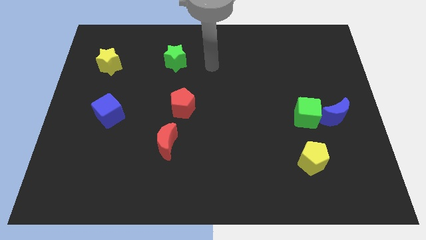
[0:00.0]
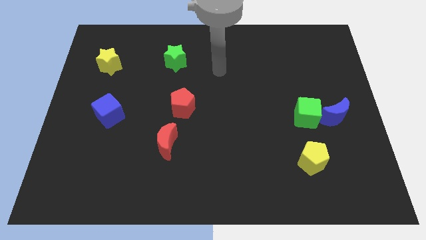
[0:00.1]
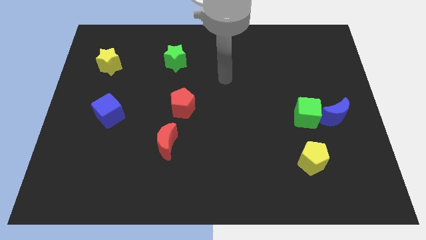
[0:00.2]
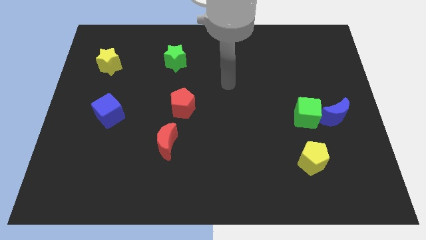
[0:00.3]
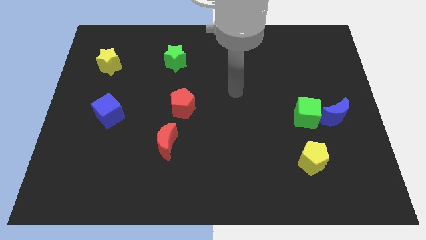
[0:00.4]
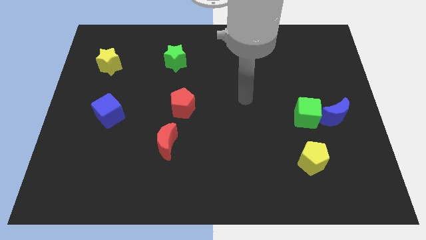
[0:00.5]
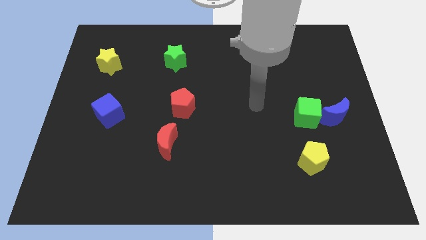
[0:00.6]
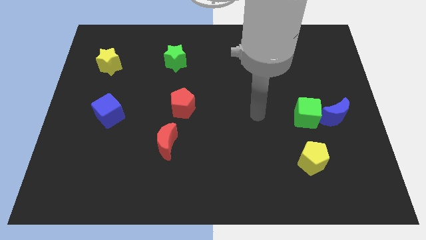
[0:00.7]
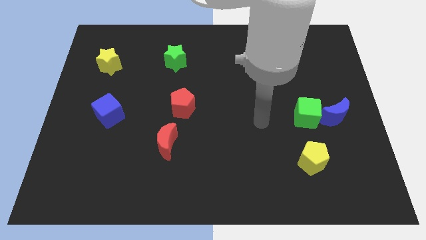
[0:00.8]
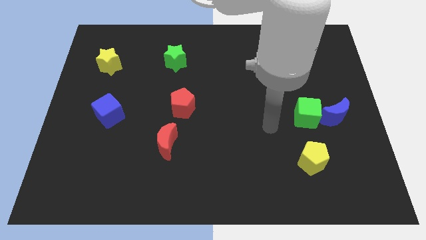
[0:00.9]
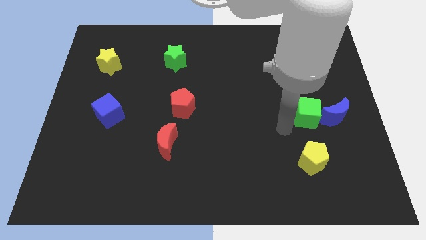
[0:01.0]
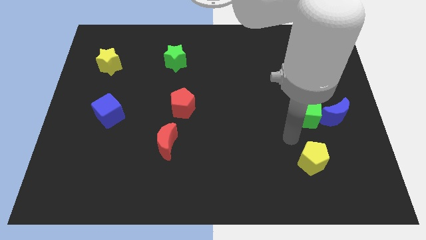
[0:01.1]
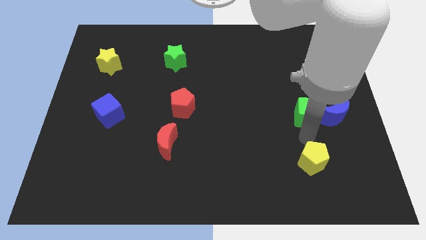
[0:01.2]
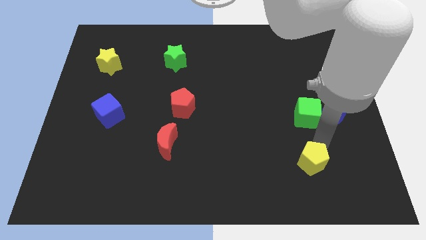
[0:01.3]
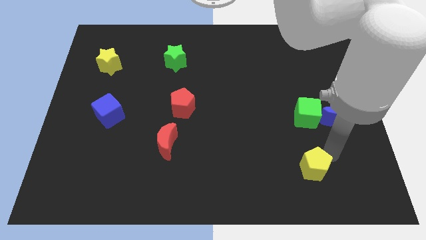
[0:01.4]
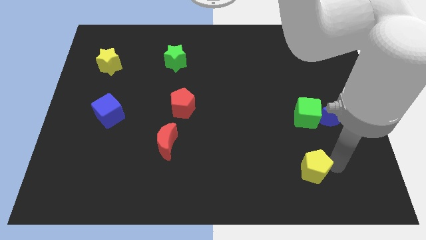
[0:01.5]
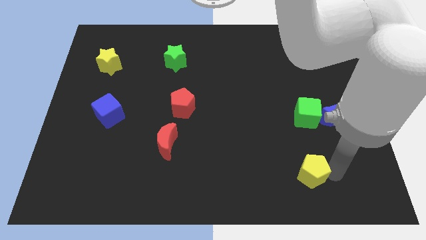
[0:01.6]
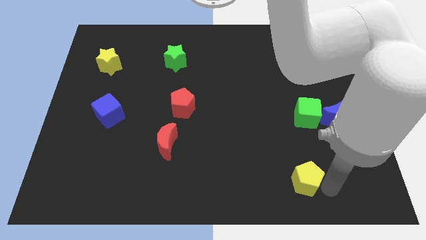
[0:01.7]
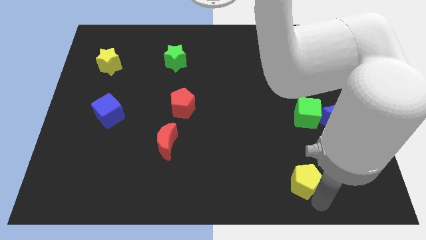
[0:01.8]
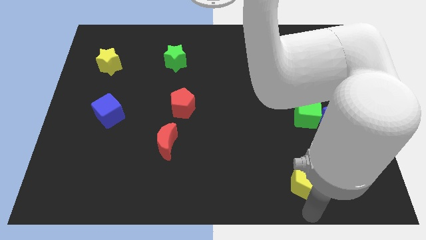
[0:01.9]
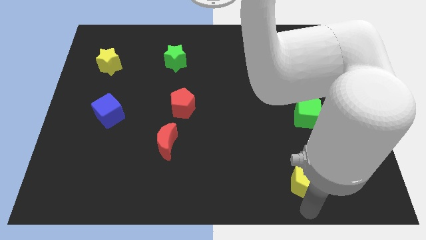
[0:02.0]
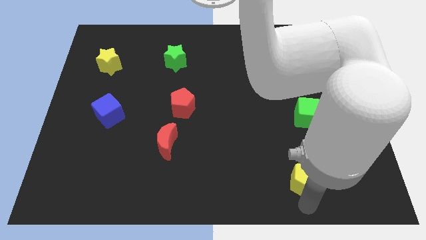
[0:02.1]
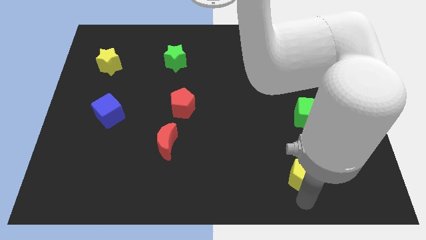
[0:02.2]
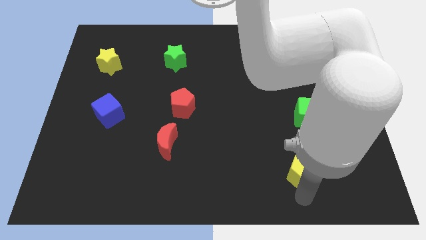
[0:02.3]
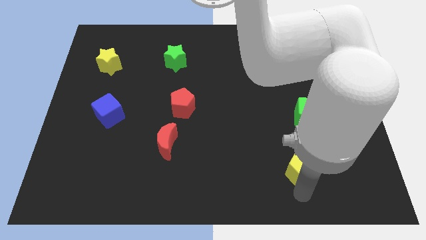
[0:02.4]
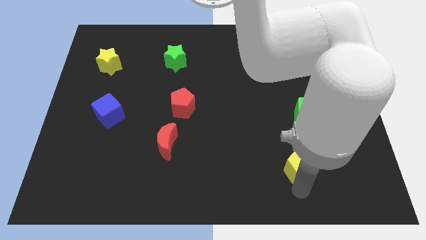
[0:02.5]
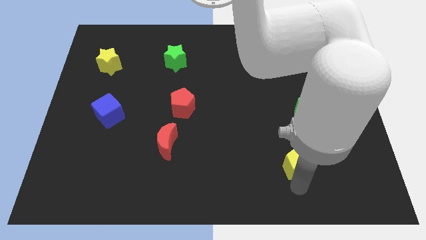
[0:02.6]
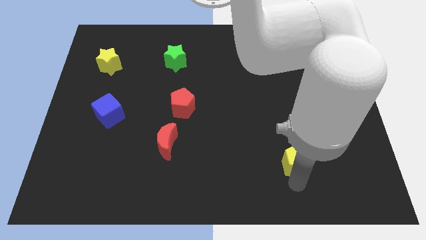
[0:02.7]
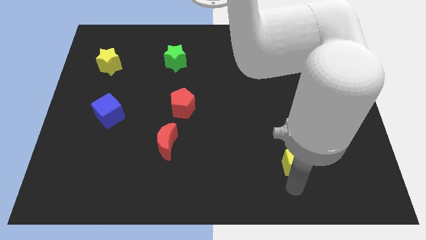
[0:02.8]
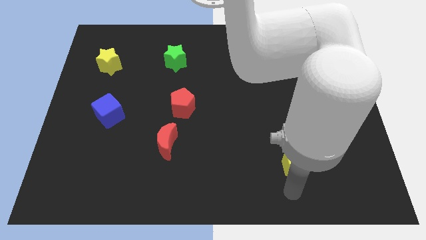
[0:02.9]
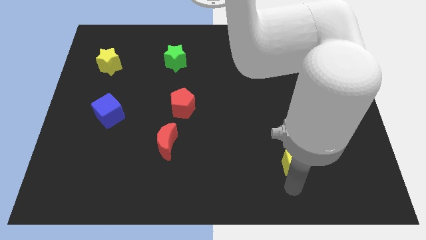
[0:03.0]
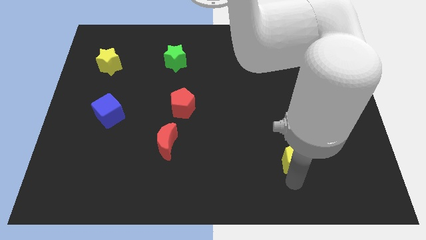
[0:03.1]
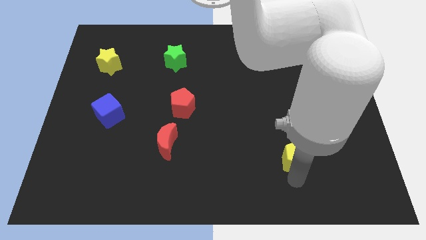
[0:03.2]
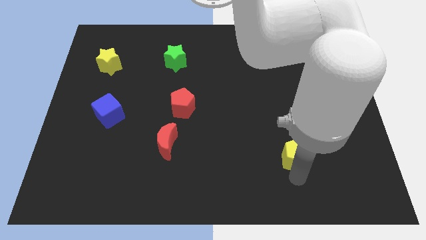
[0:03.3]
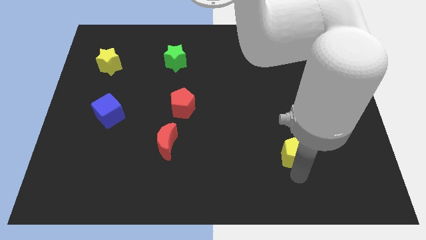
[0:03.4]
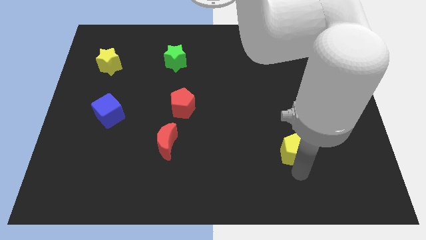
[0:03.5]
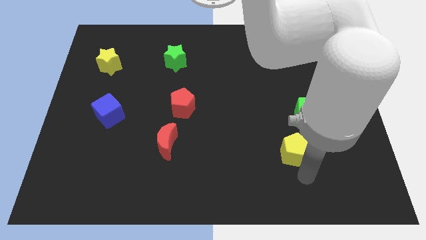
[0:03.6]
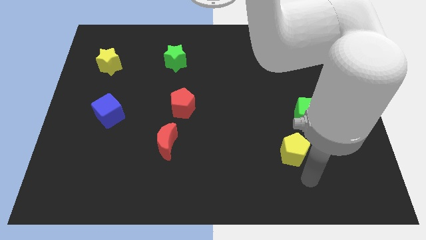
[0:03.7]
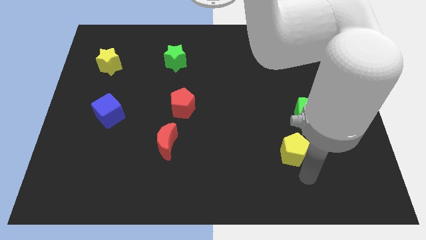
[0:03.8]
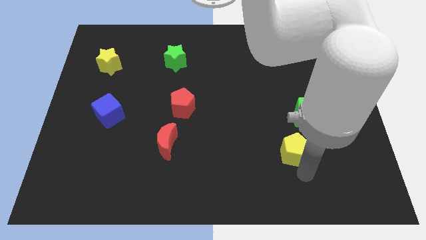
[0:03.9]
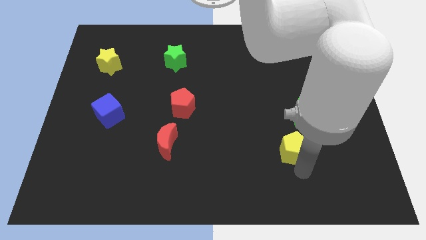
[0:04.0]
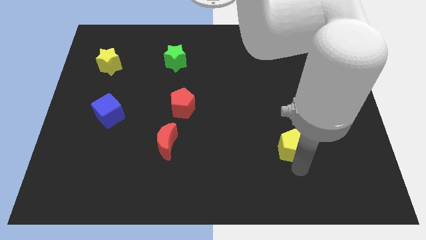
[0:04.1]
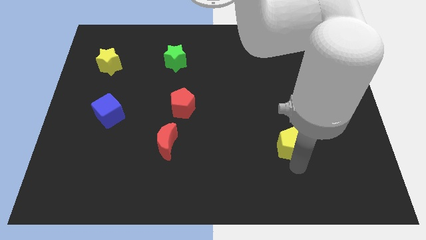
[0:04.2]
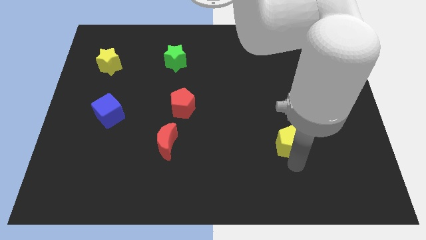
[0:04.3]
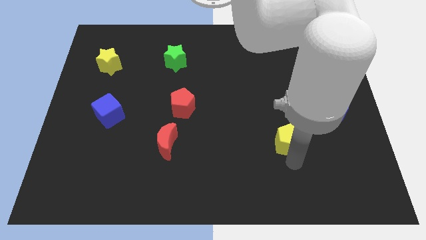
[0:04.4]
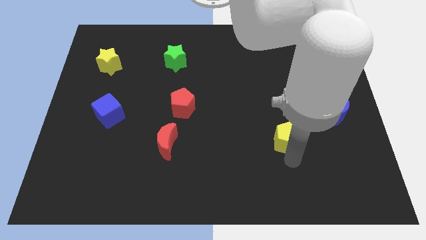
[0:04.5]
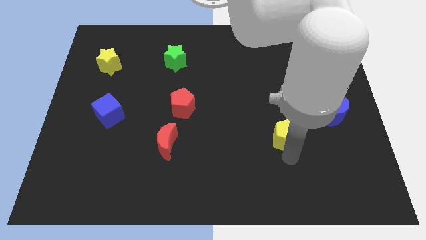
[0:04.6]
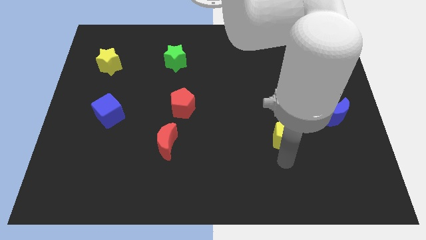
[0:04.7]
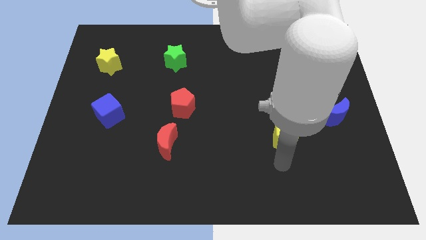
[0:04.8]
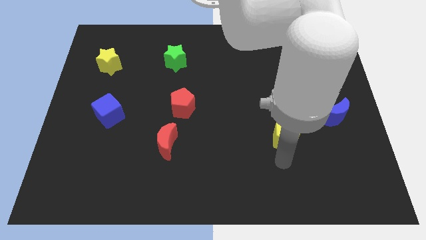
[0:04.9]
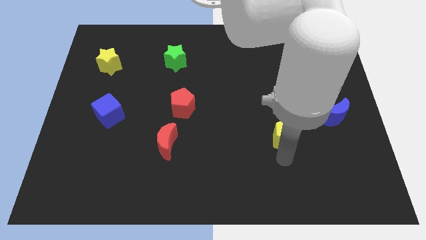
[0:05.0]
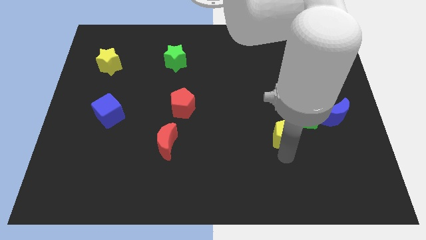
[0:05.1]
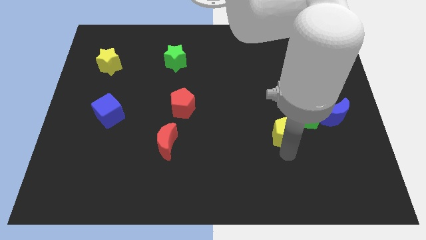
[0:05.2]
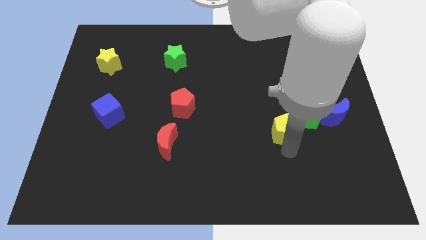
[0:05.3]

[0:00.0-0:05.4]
move the yellow pentagon to the left of the blue moon

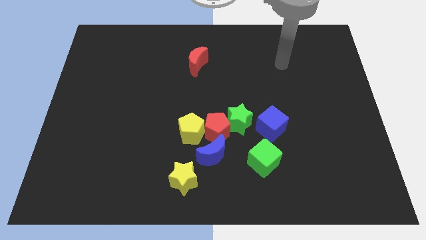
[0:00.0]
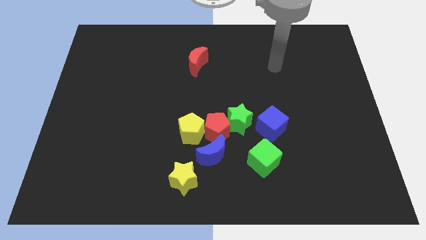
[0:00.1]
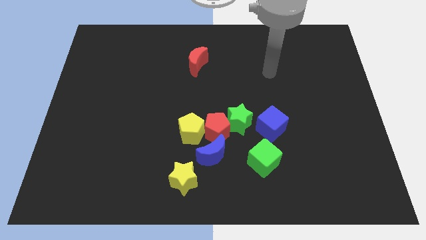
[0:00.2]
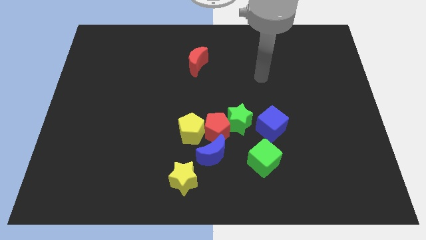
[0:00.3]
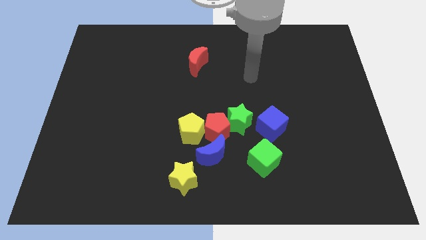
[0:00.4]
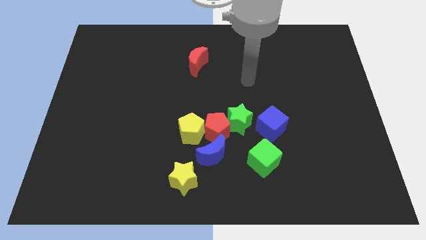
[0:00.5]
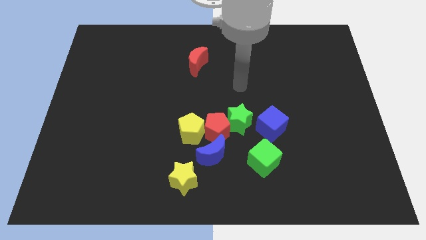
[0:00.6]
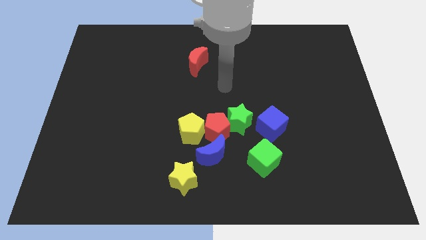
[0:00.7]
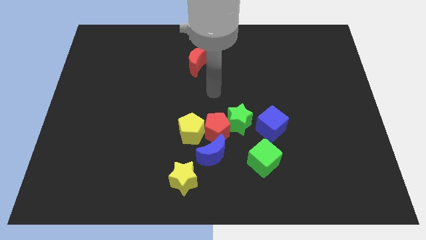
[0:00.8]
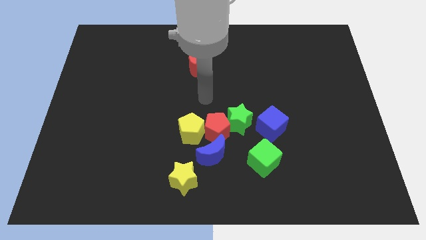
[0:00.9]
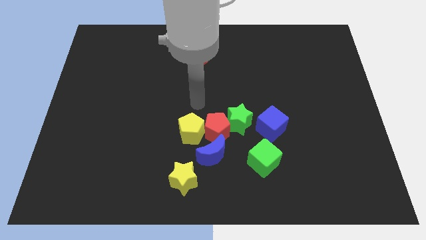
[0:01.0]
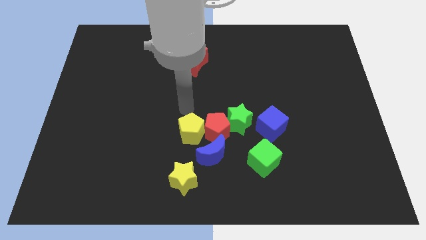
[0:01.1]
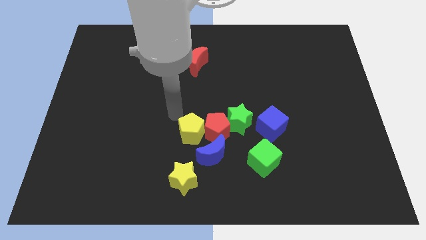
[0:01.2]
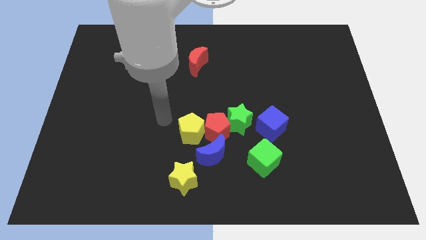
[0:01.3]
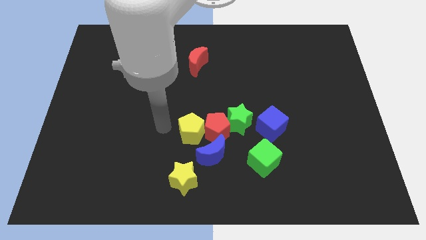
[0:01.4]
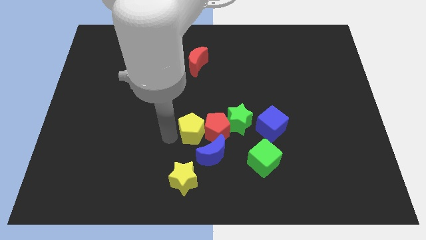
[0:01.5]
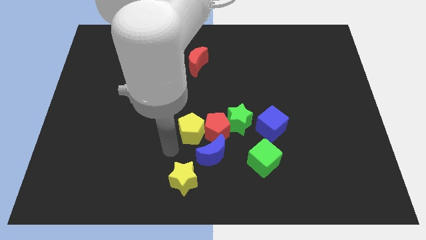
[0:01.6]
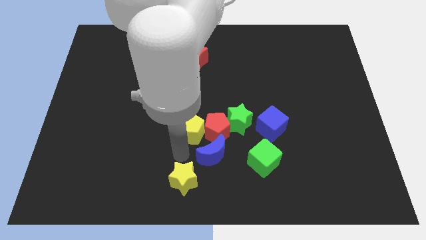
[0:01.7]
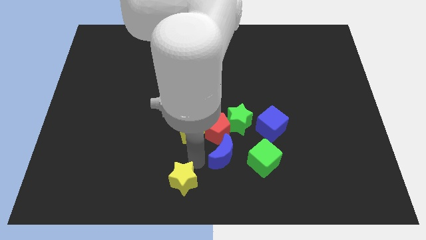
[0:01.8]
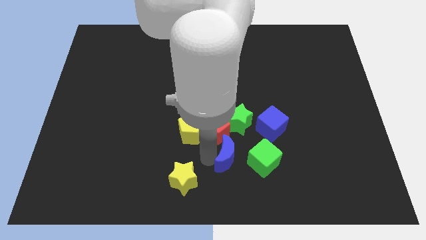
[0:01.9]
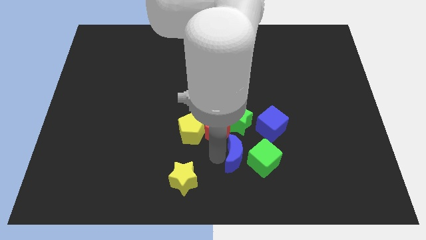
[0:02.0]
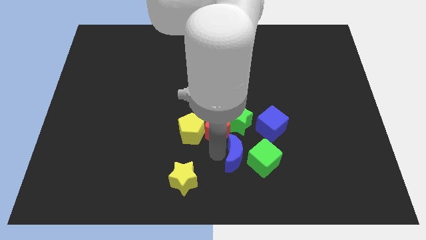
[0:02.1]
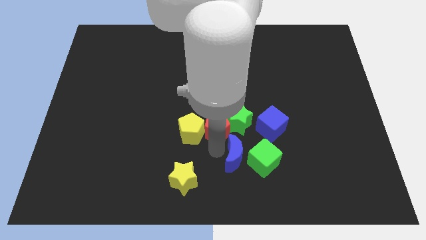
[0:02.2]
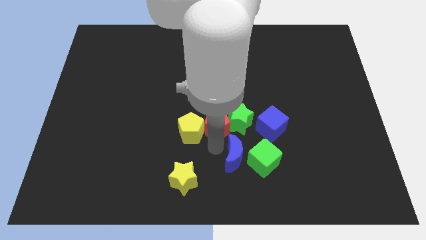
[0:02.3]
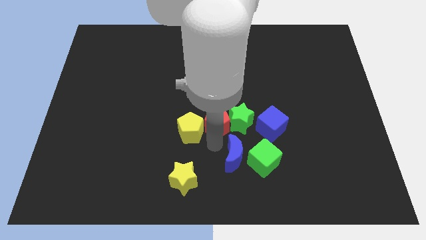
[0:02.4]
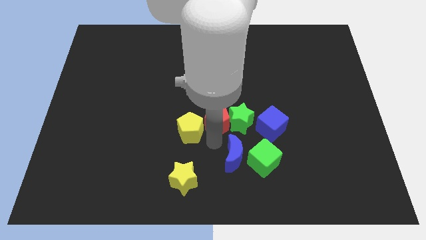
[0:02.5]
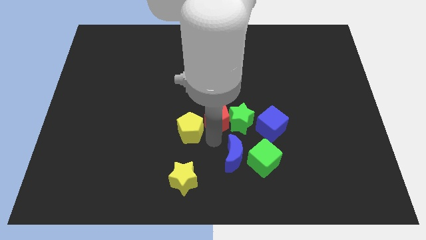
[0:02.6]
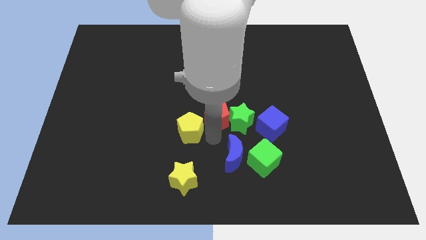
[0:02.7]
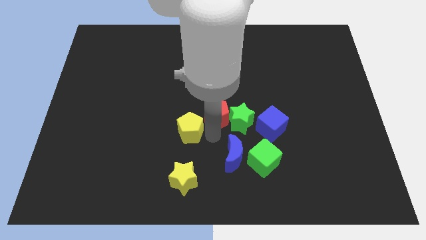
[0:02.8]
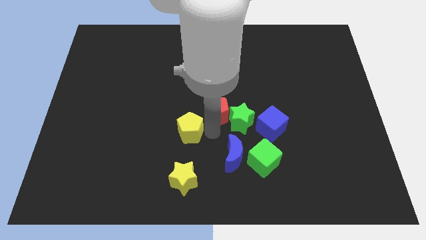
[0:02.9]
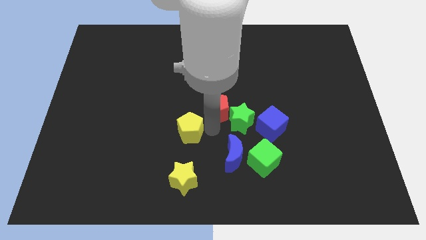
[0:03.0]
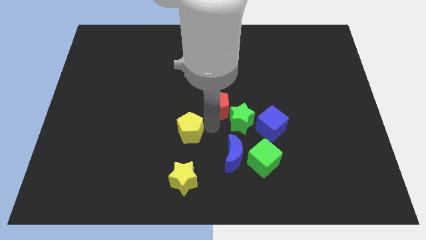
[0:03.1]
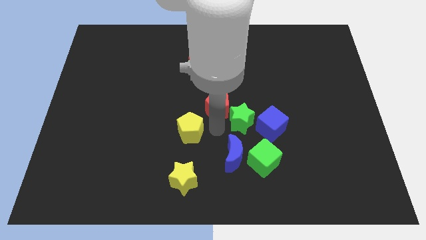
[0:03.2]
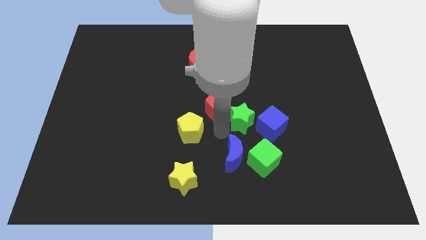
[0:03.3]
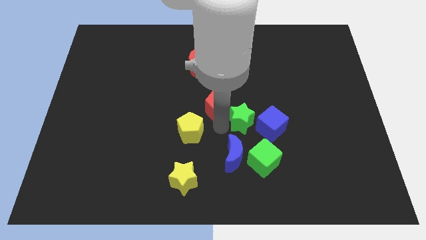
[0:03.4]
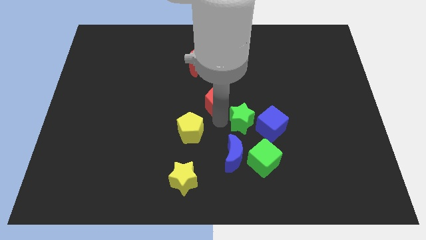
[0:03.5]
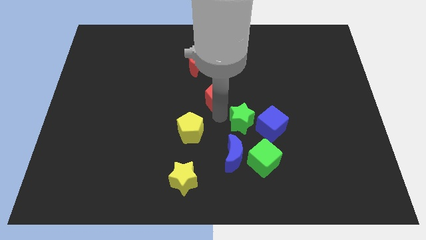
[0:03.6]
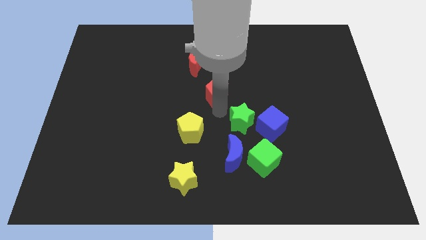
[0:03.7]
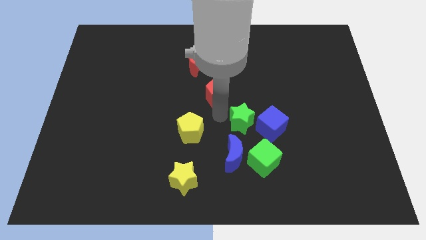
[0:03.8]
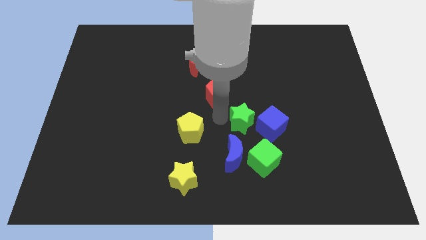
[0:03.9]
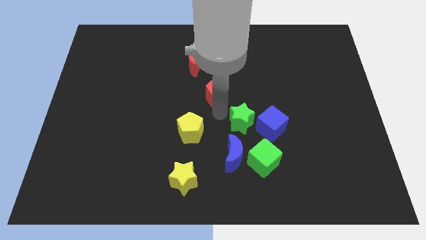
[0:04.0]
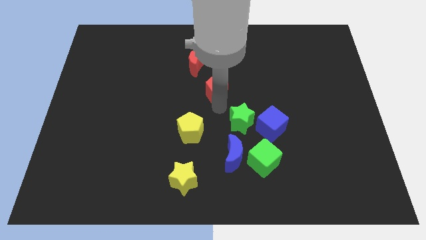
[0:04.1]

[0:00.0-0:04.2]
put the red pentagon to the bottom right side of the red moon
